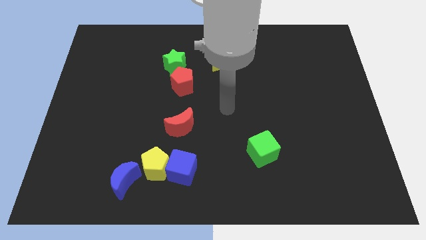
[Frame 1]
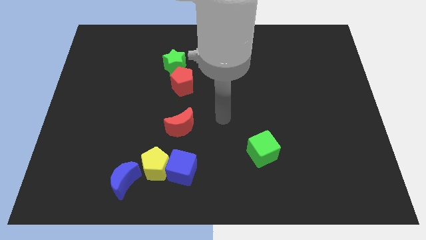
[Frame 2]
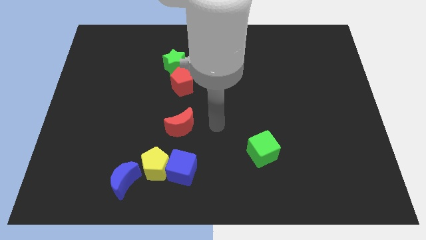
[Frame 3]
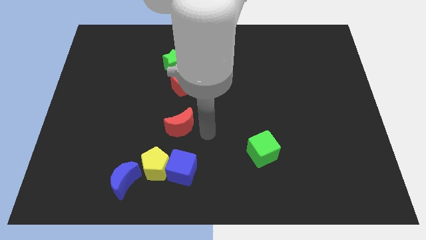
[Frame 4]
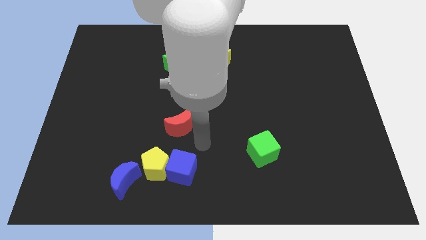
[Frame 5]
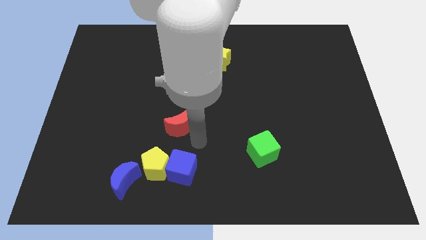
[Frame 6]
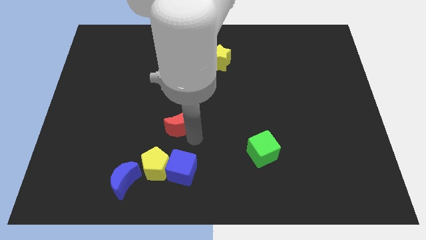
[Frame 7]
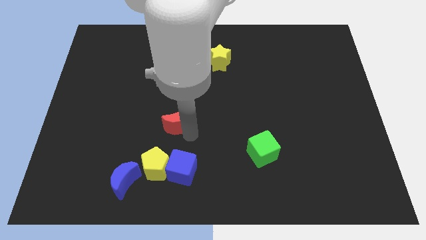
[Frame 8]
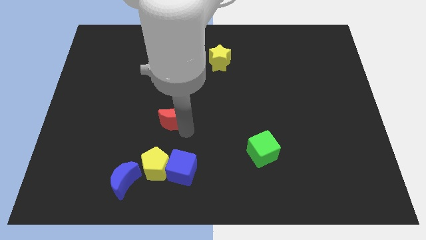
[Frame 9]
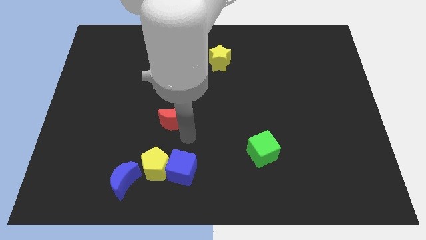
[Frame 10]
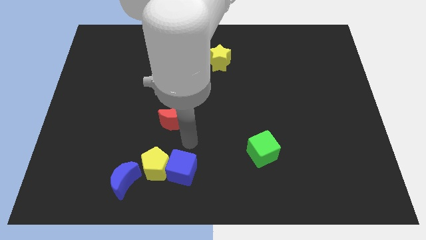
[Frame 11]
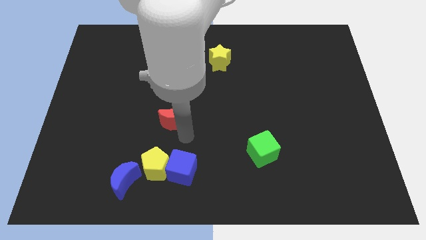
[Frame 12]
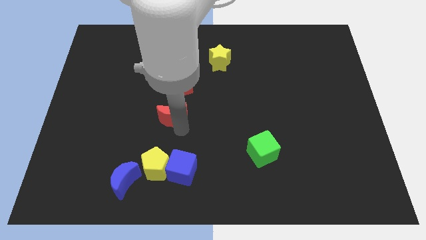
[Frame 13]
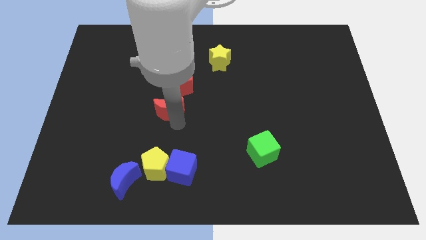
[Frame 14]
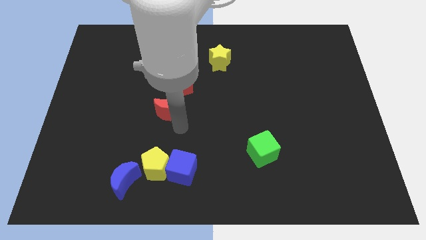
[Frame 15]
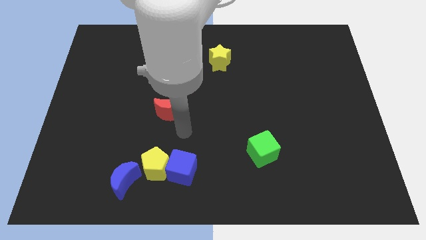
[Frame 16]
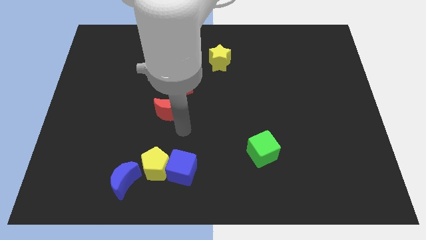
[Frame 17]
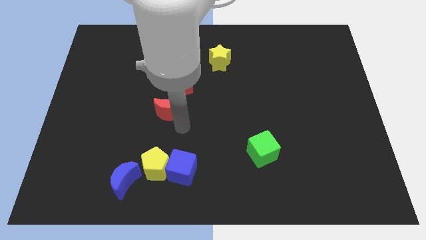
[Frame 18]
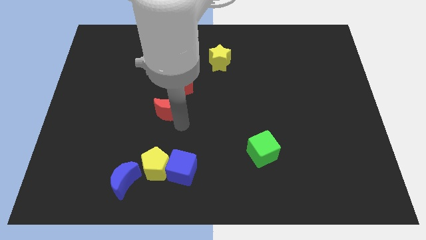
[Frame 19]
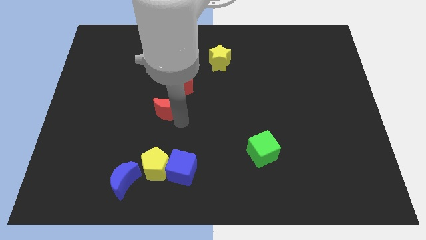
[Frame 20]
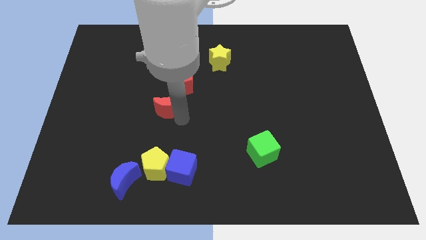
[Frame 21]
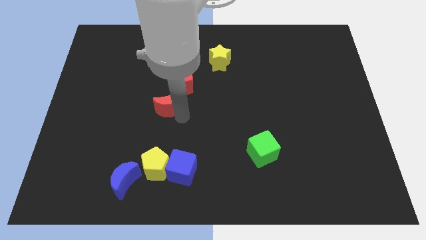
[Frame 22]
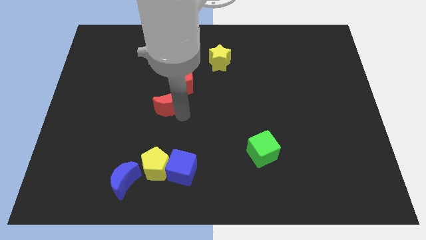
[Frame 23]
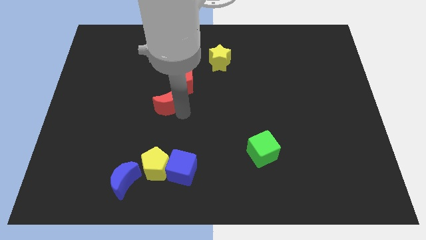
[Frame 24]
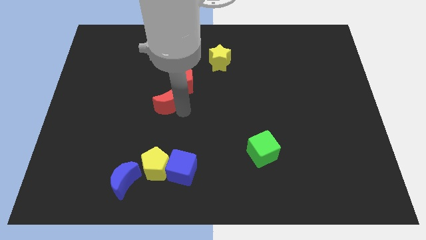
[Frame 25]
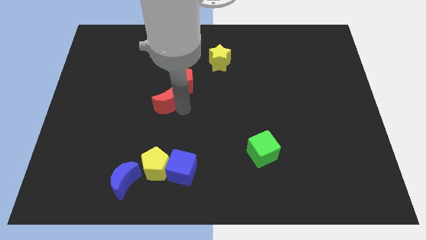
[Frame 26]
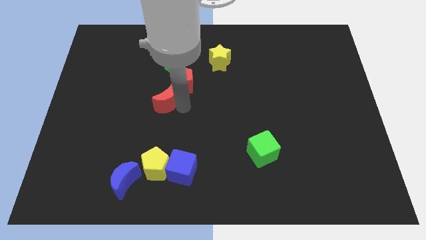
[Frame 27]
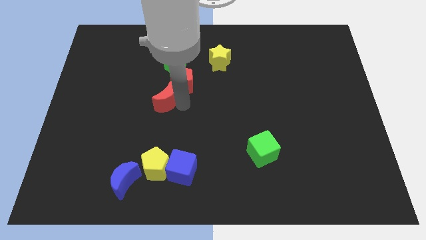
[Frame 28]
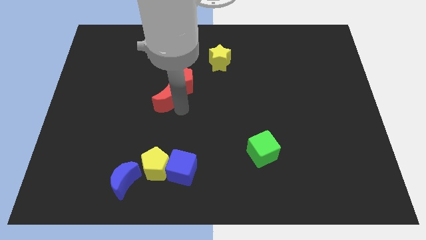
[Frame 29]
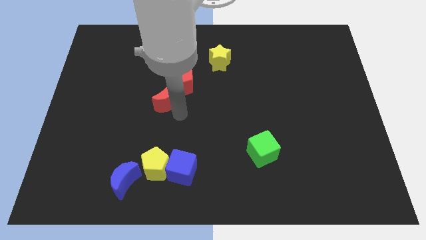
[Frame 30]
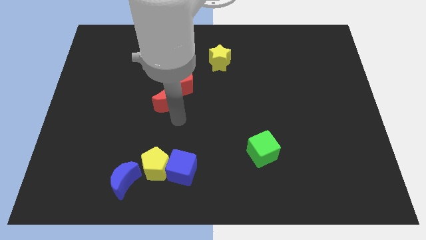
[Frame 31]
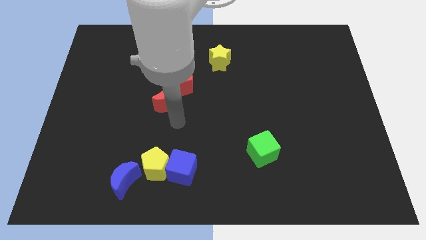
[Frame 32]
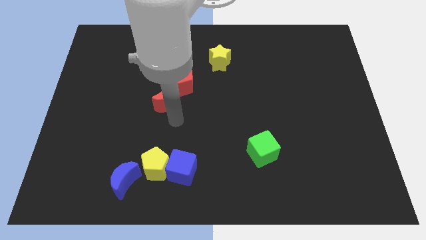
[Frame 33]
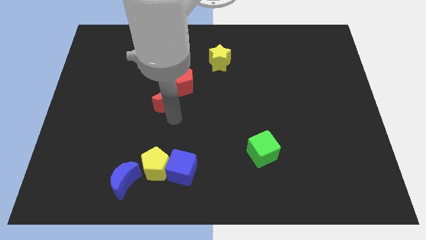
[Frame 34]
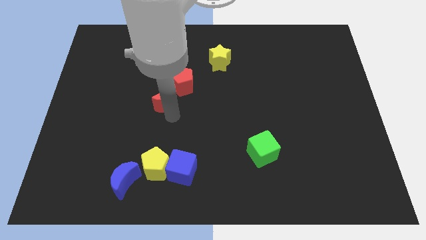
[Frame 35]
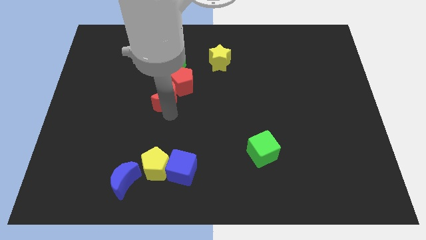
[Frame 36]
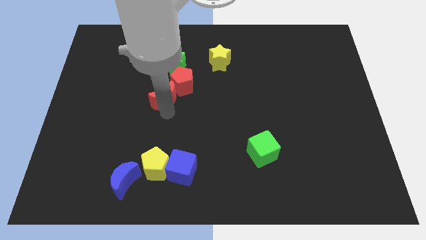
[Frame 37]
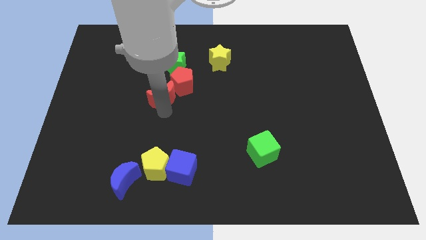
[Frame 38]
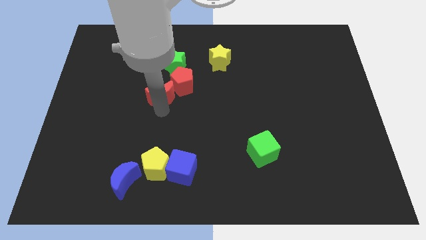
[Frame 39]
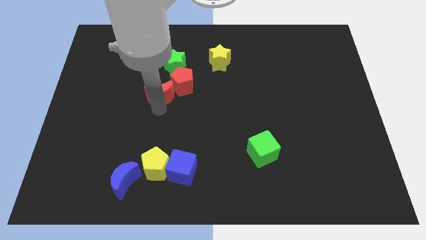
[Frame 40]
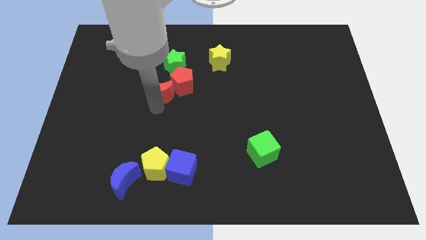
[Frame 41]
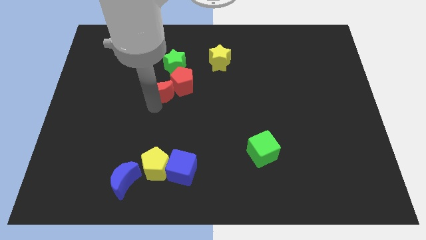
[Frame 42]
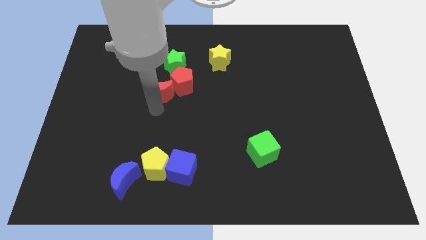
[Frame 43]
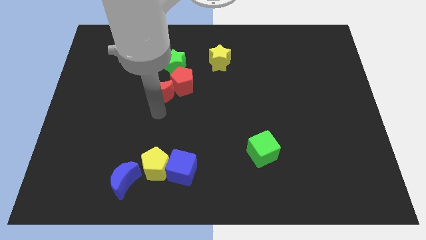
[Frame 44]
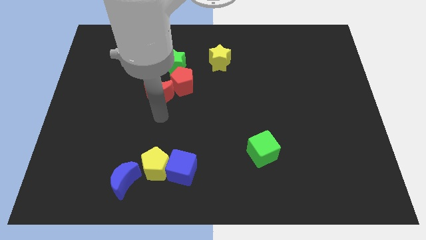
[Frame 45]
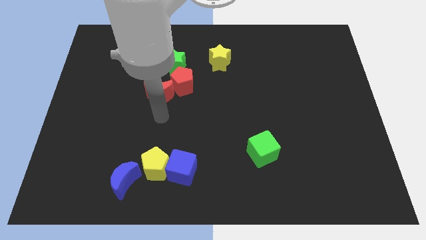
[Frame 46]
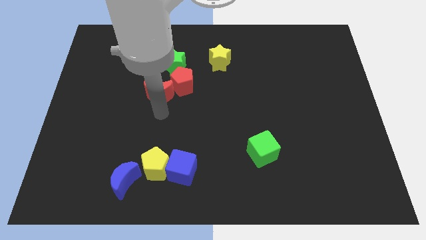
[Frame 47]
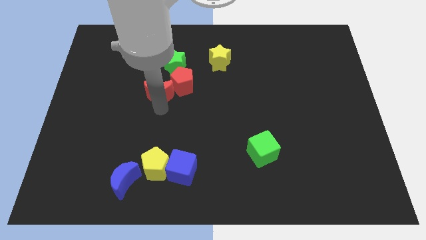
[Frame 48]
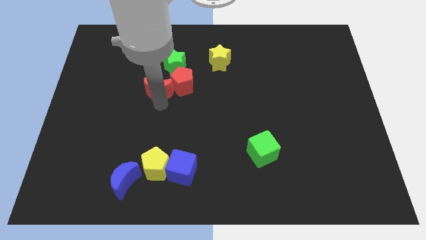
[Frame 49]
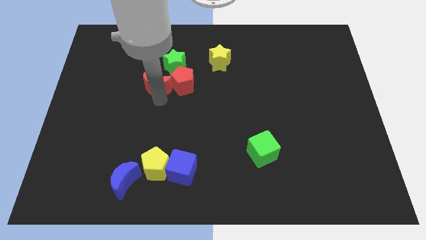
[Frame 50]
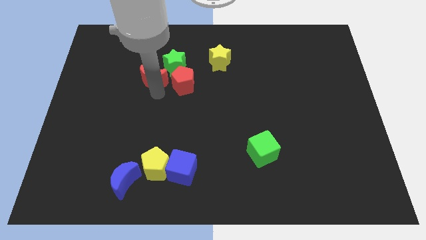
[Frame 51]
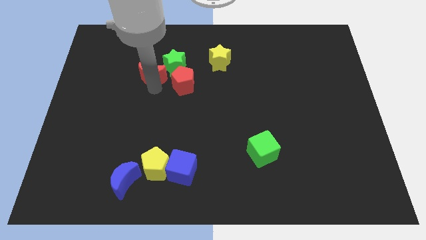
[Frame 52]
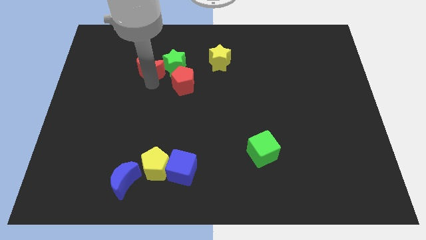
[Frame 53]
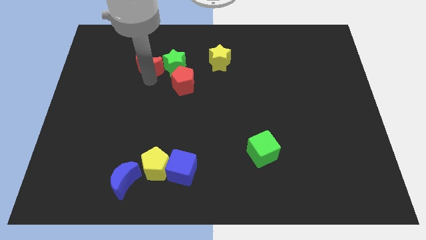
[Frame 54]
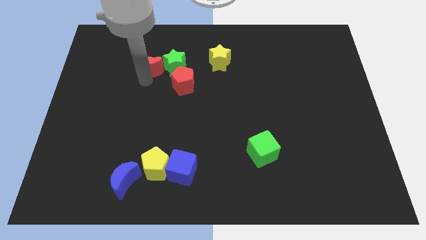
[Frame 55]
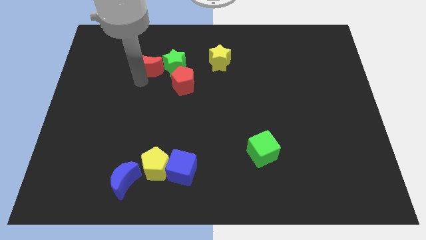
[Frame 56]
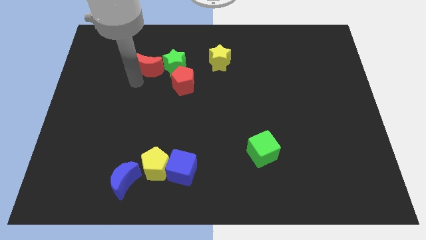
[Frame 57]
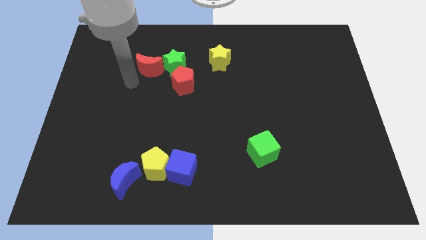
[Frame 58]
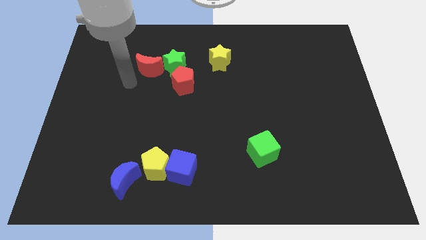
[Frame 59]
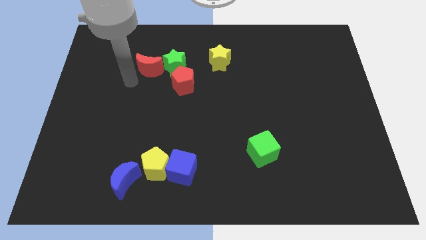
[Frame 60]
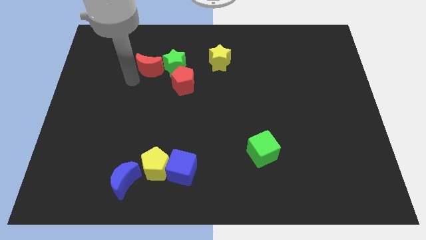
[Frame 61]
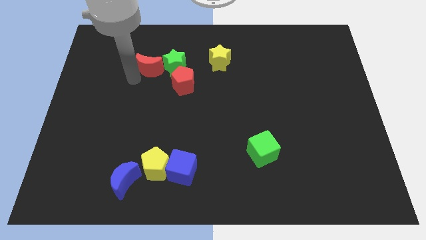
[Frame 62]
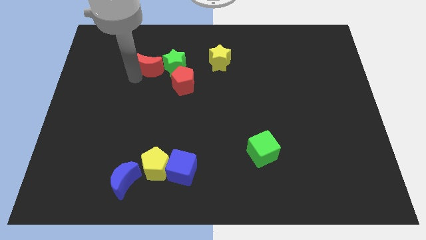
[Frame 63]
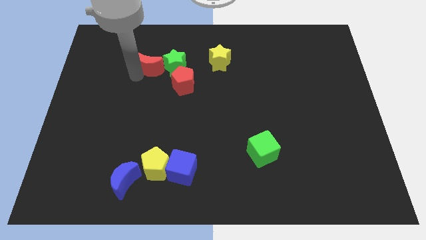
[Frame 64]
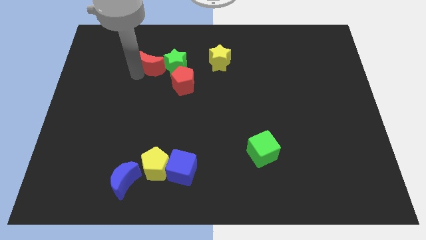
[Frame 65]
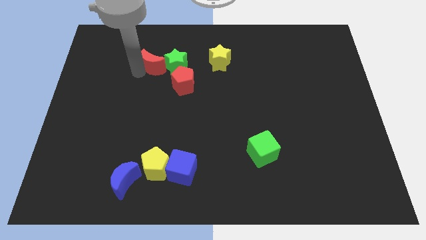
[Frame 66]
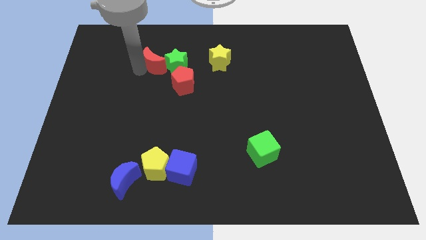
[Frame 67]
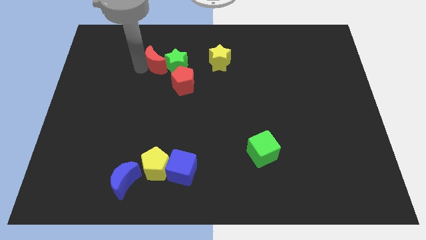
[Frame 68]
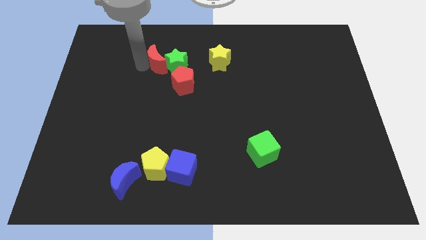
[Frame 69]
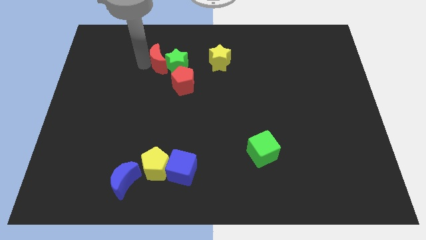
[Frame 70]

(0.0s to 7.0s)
slide the red moon to the left of the yellow star

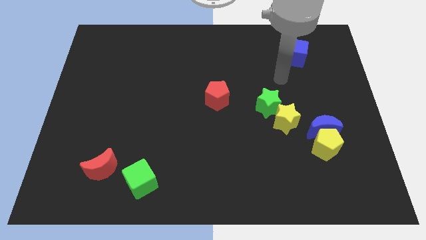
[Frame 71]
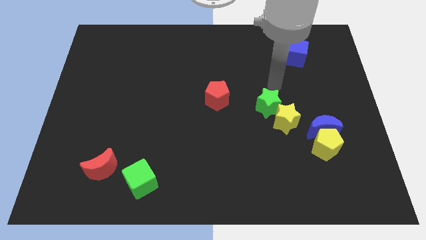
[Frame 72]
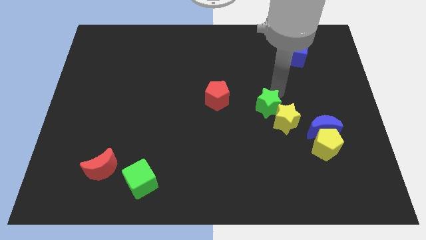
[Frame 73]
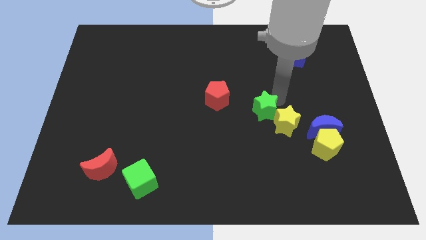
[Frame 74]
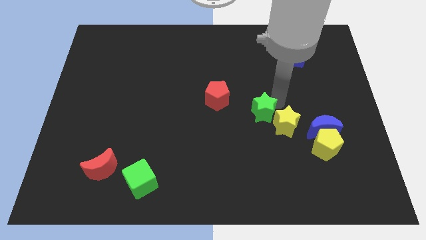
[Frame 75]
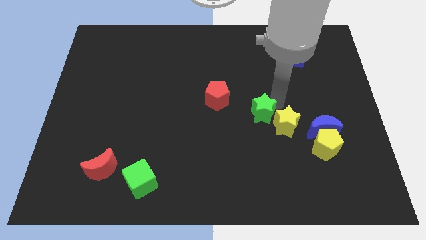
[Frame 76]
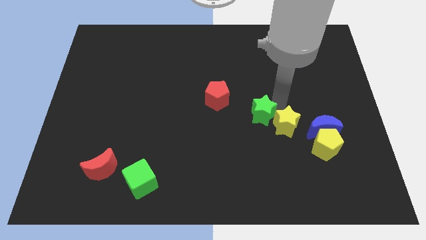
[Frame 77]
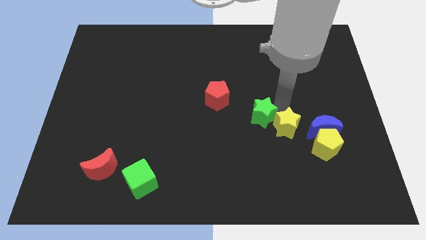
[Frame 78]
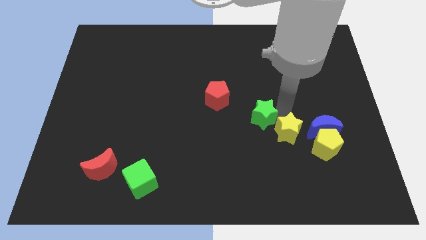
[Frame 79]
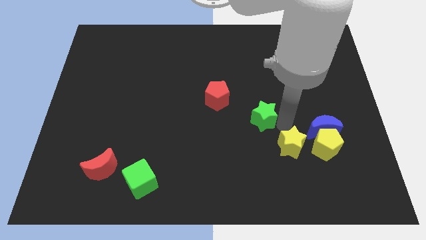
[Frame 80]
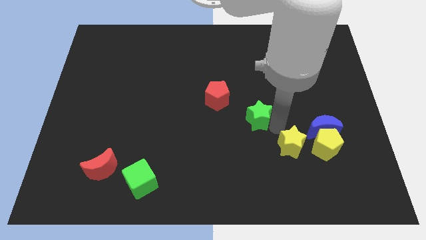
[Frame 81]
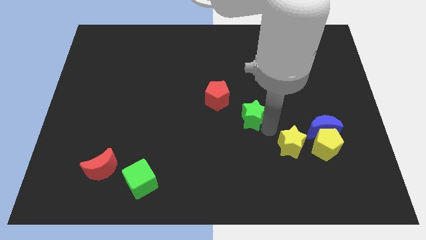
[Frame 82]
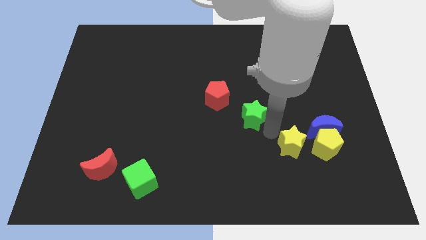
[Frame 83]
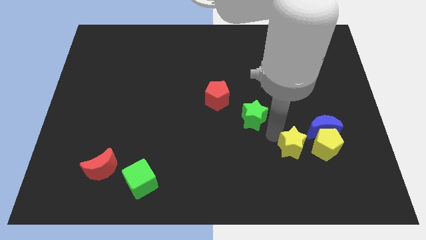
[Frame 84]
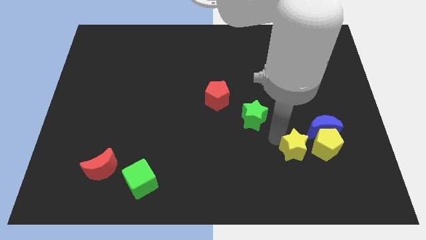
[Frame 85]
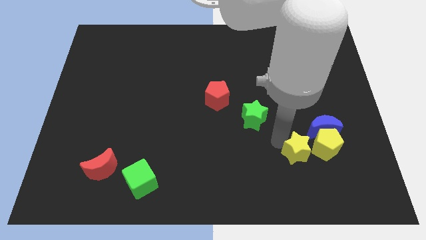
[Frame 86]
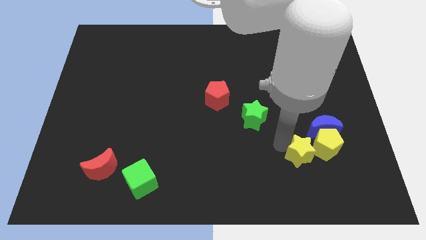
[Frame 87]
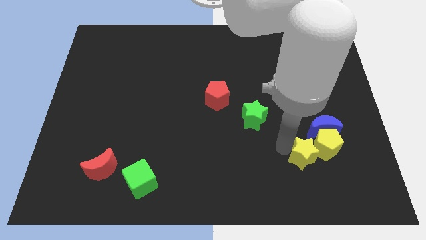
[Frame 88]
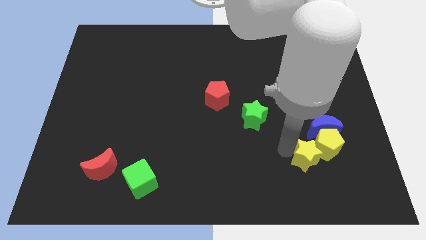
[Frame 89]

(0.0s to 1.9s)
slide the yellow star to the bottom side of the blue moon
